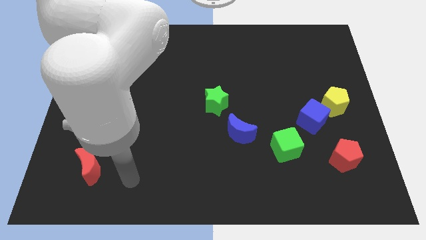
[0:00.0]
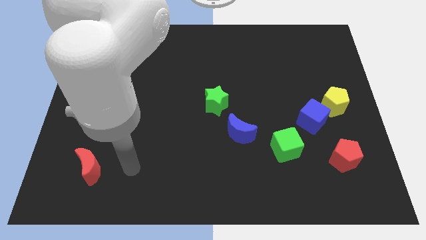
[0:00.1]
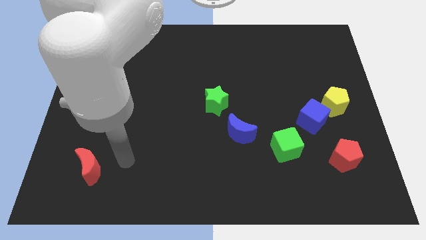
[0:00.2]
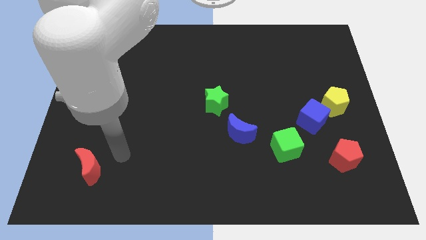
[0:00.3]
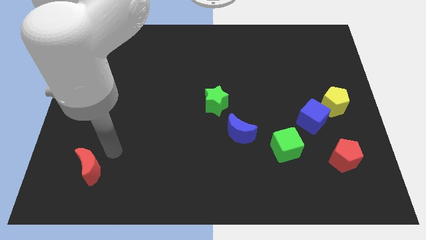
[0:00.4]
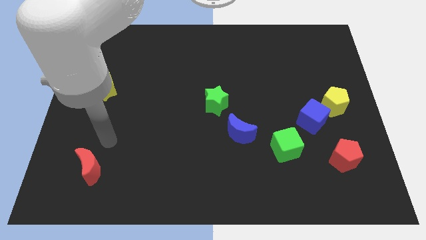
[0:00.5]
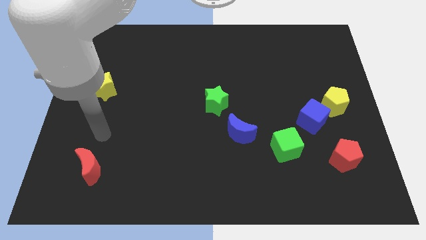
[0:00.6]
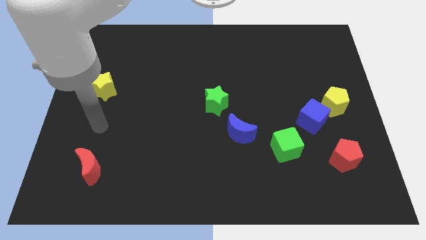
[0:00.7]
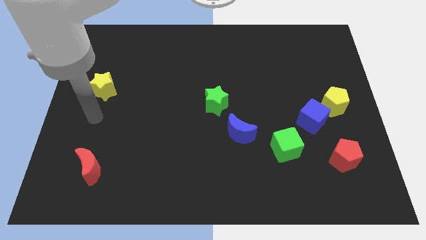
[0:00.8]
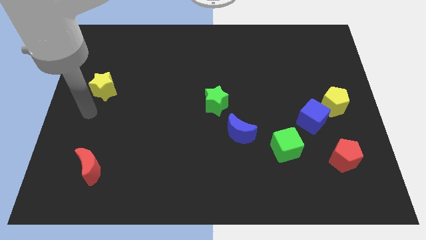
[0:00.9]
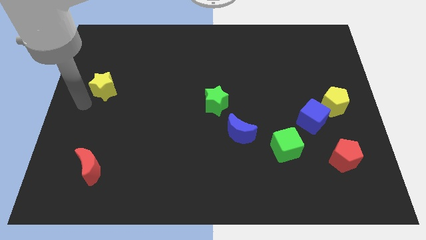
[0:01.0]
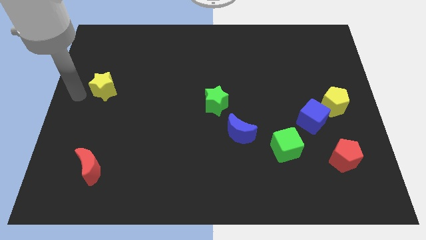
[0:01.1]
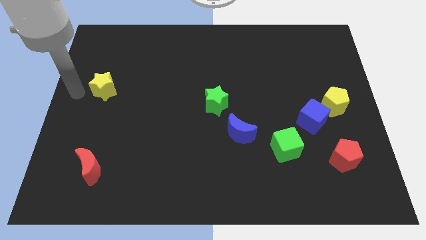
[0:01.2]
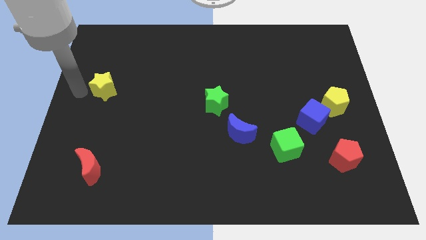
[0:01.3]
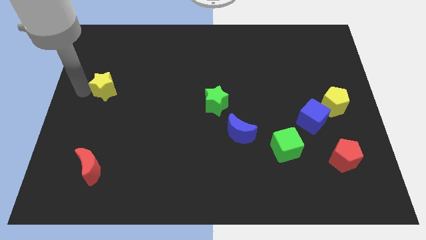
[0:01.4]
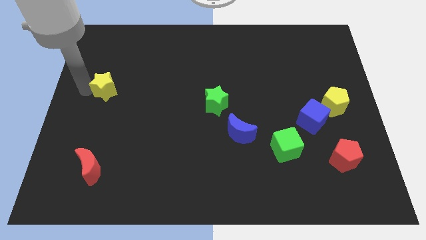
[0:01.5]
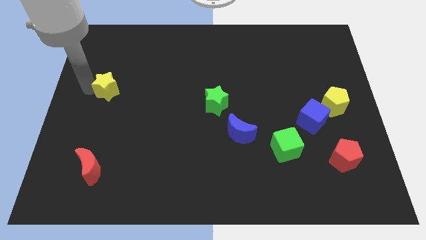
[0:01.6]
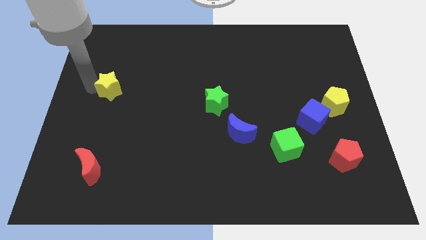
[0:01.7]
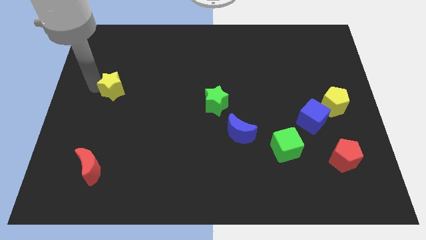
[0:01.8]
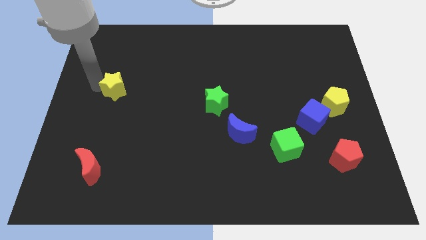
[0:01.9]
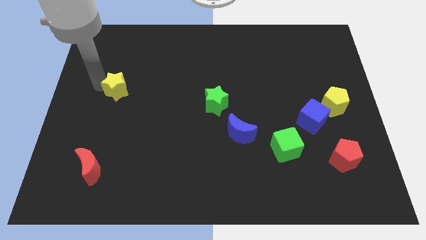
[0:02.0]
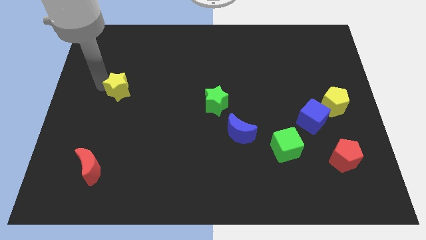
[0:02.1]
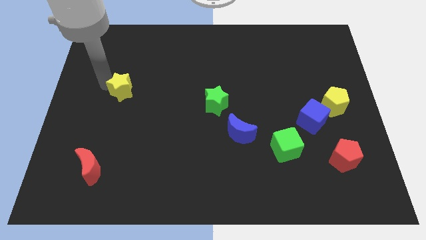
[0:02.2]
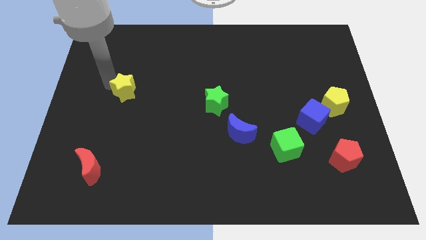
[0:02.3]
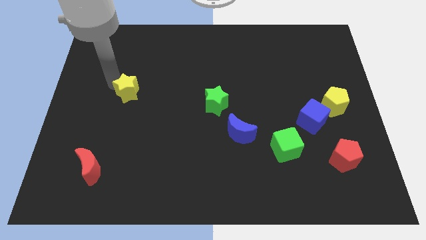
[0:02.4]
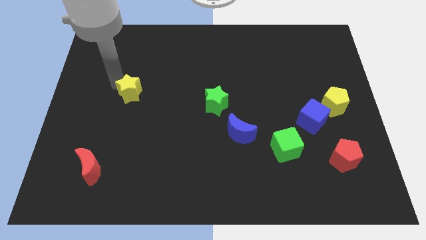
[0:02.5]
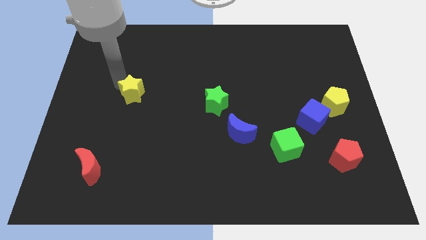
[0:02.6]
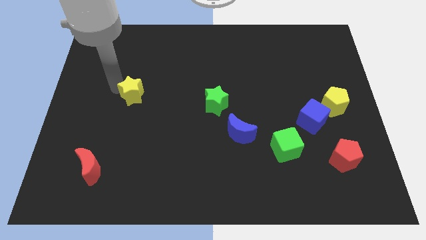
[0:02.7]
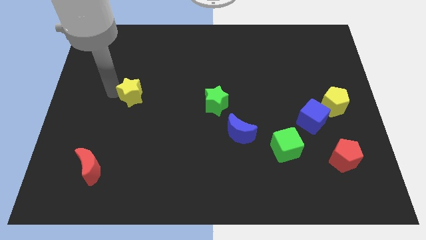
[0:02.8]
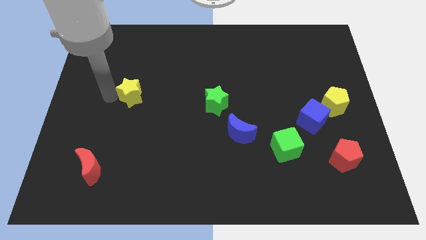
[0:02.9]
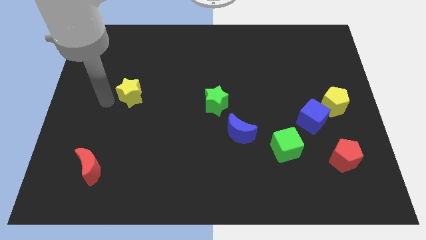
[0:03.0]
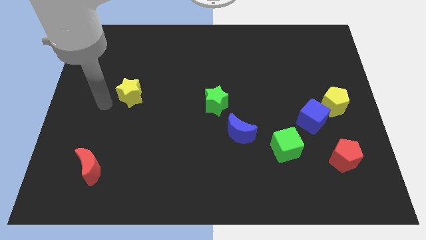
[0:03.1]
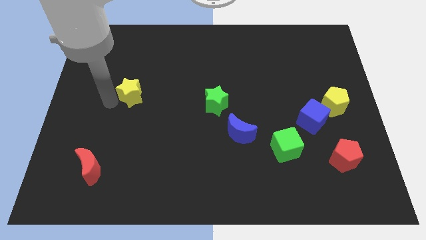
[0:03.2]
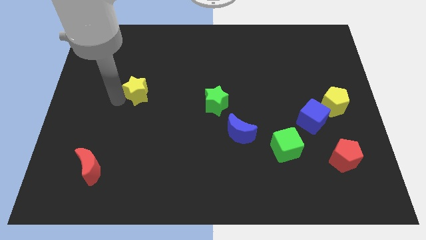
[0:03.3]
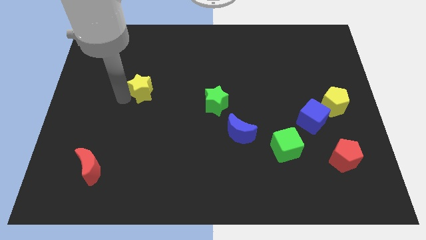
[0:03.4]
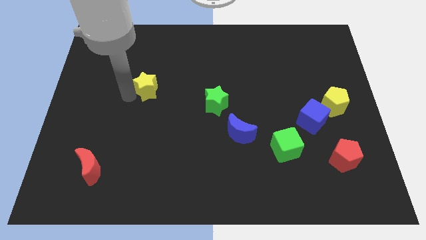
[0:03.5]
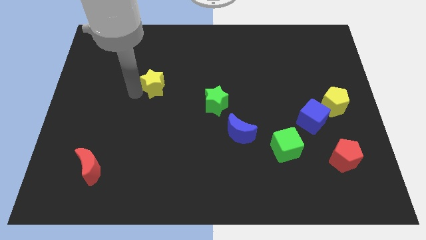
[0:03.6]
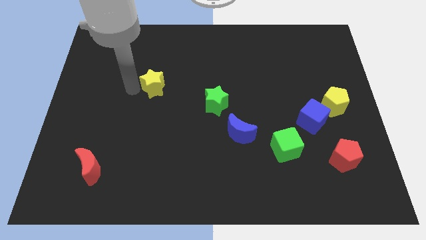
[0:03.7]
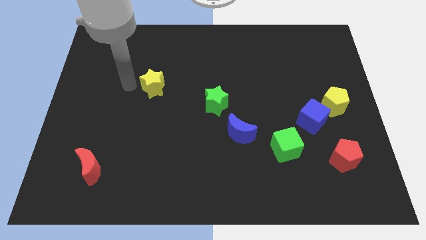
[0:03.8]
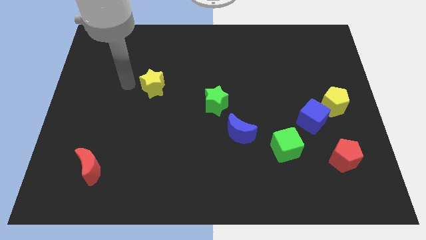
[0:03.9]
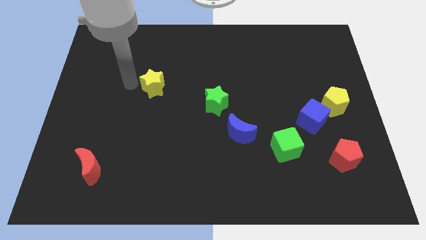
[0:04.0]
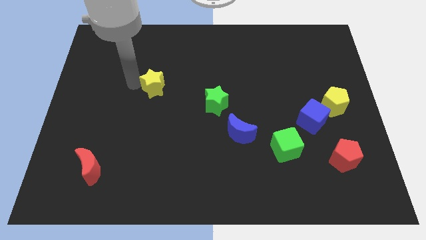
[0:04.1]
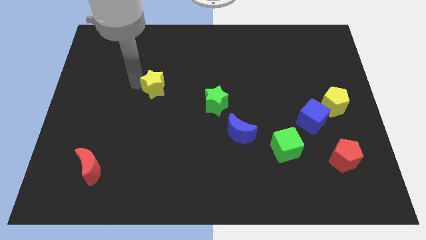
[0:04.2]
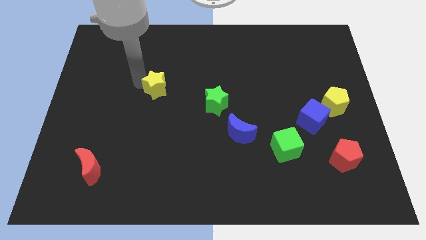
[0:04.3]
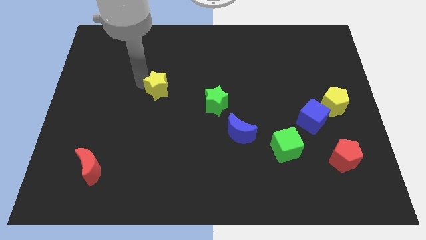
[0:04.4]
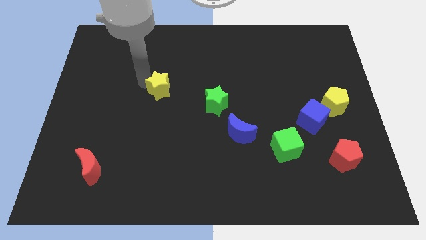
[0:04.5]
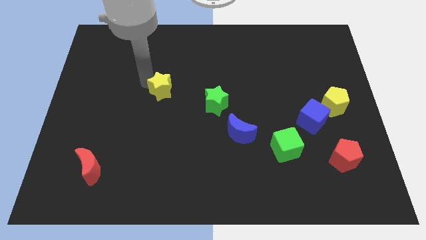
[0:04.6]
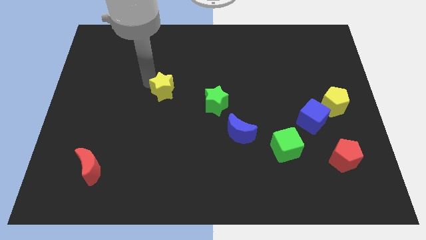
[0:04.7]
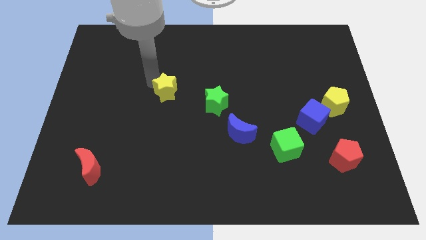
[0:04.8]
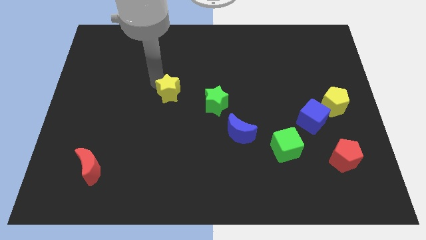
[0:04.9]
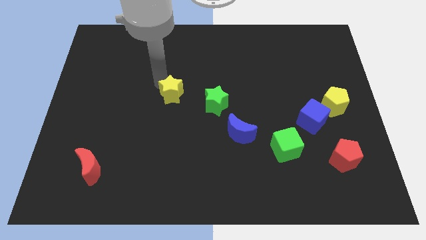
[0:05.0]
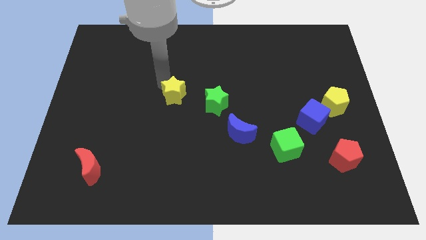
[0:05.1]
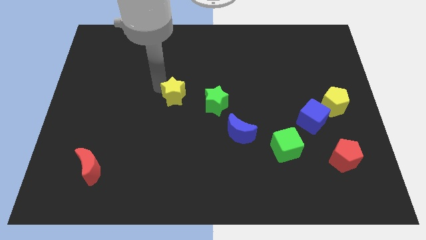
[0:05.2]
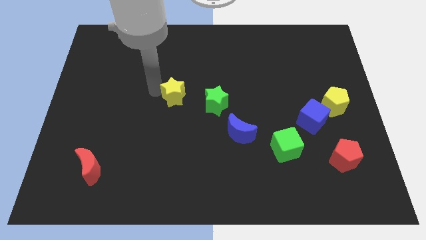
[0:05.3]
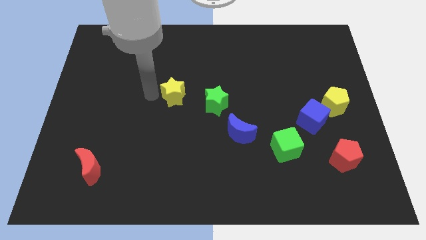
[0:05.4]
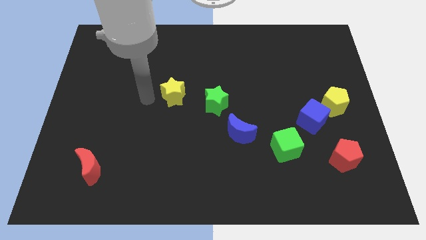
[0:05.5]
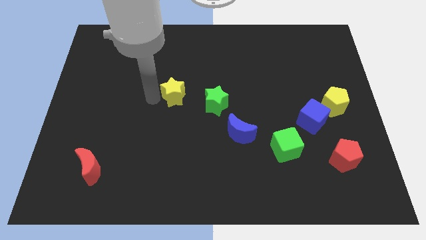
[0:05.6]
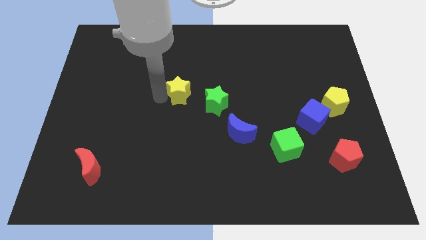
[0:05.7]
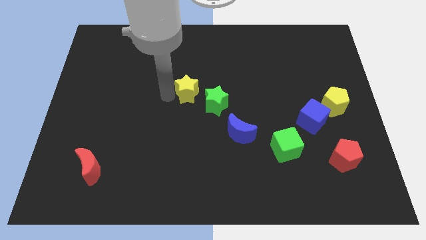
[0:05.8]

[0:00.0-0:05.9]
move the yellow star right

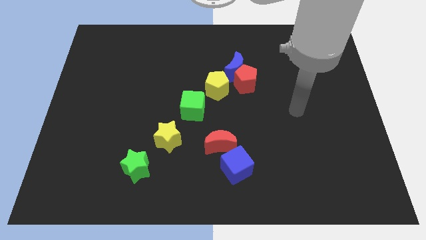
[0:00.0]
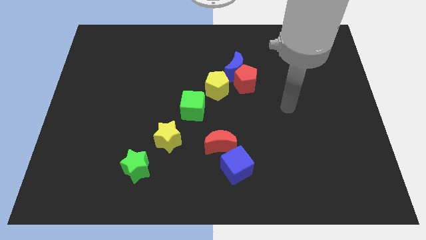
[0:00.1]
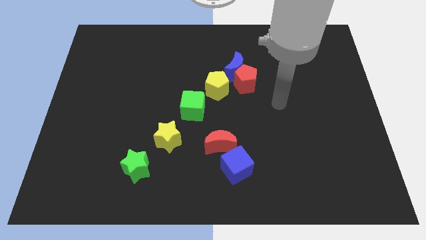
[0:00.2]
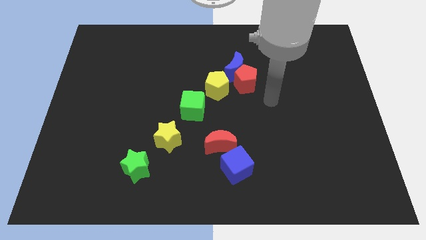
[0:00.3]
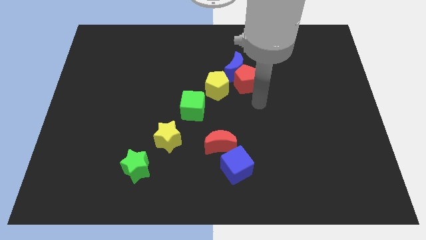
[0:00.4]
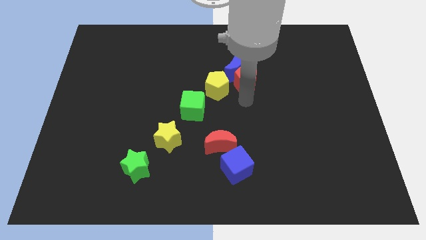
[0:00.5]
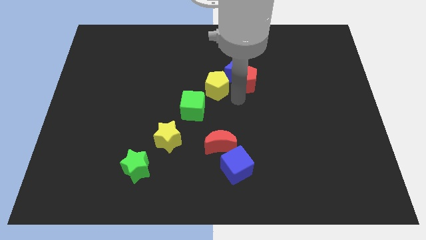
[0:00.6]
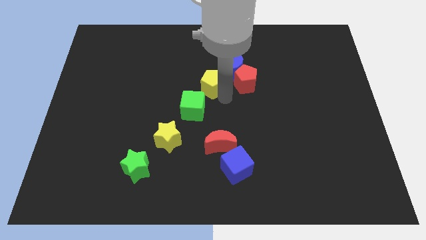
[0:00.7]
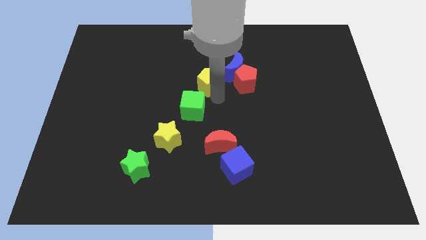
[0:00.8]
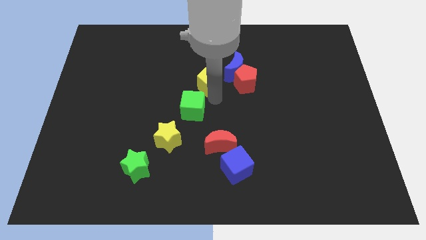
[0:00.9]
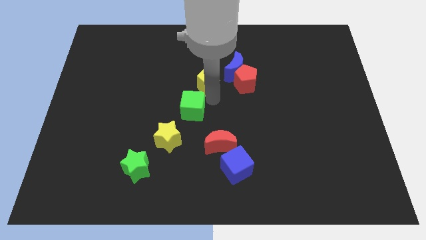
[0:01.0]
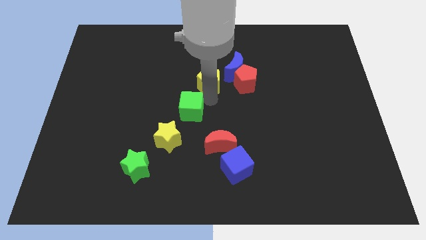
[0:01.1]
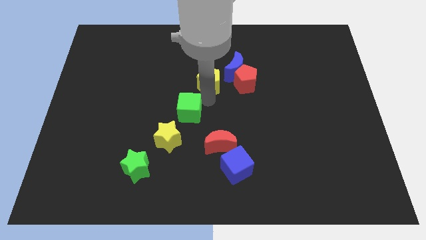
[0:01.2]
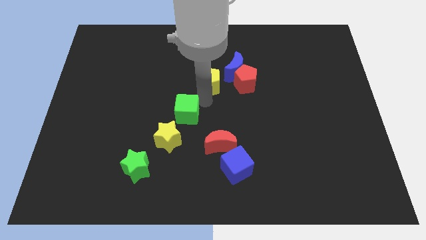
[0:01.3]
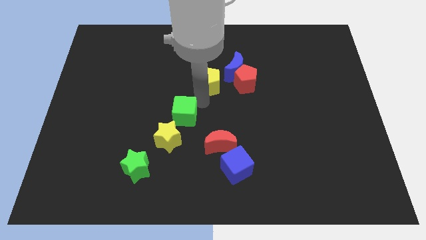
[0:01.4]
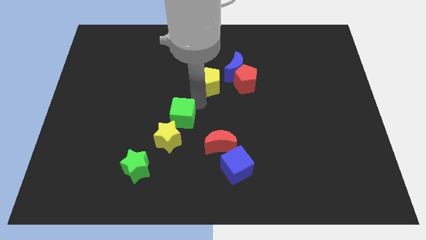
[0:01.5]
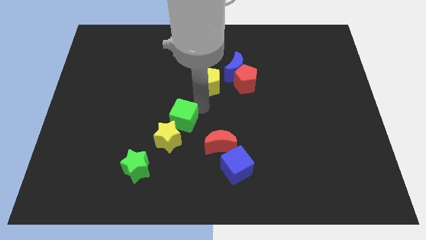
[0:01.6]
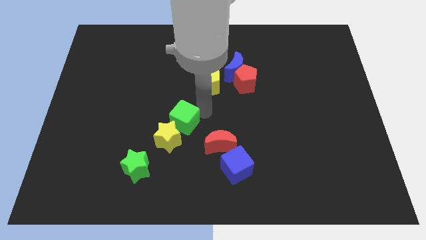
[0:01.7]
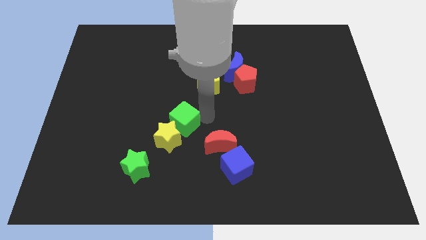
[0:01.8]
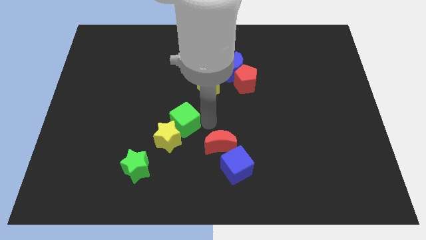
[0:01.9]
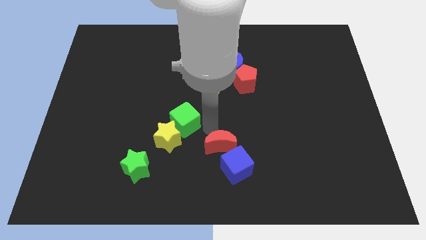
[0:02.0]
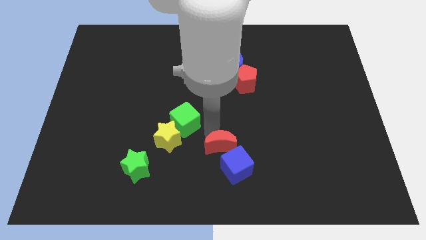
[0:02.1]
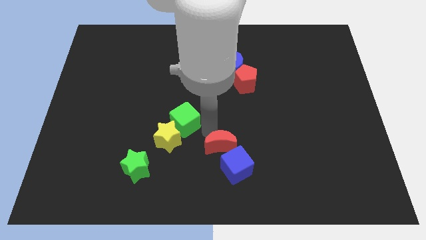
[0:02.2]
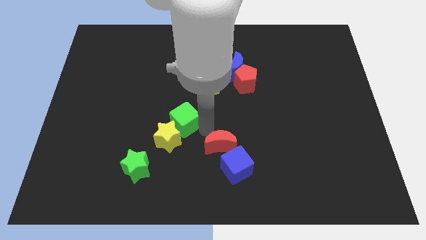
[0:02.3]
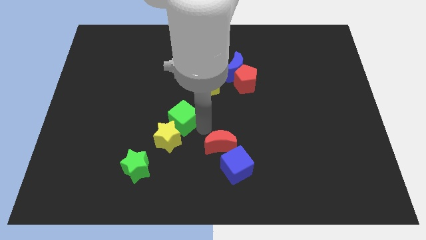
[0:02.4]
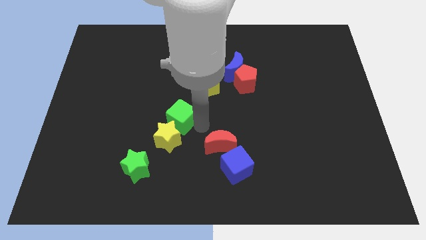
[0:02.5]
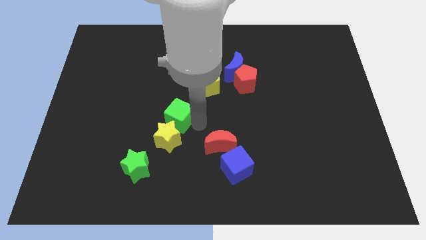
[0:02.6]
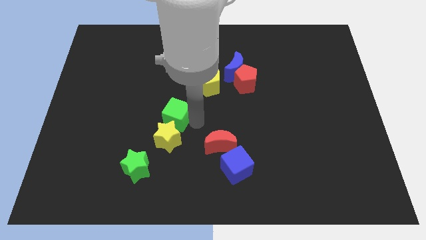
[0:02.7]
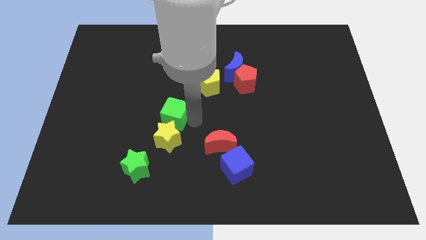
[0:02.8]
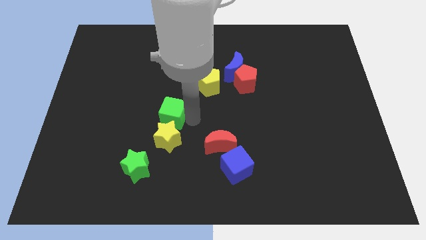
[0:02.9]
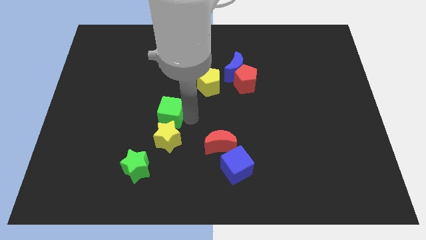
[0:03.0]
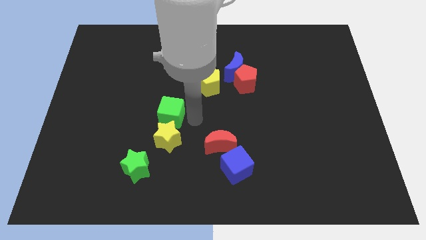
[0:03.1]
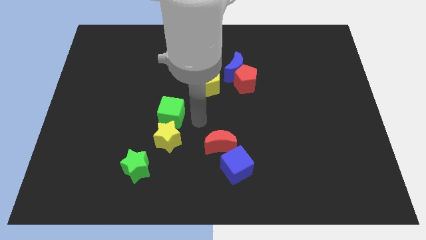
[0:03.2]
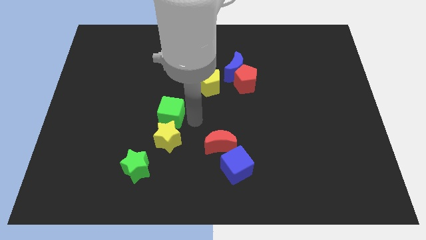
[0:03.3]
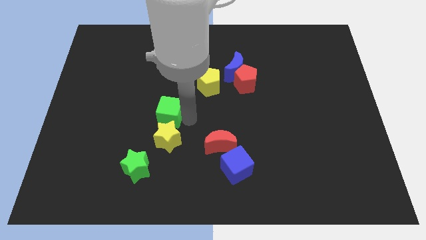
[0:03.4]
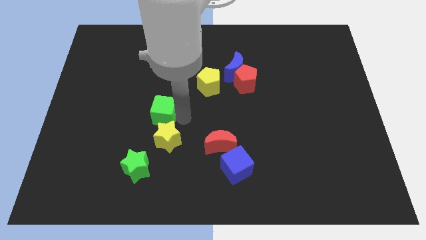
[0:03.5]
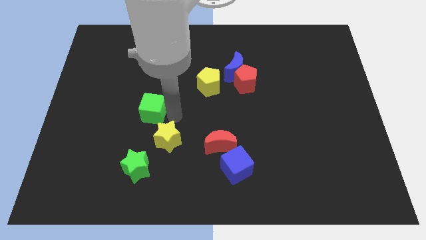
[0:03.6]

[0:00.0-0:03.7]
slide the green cube a little bit left
